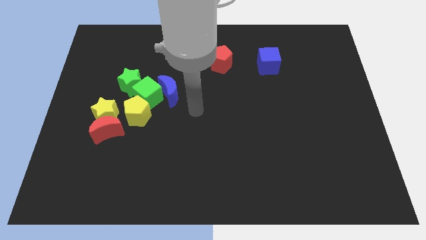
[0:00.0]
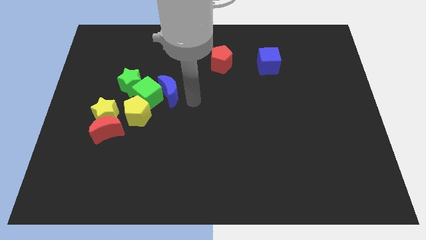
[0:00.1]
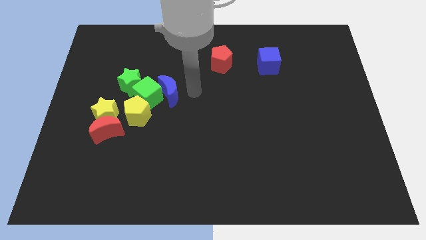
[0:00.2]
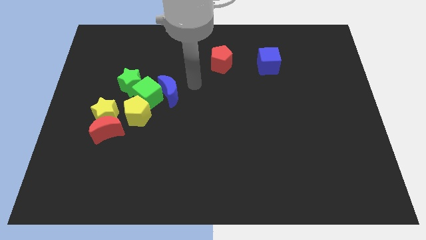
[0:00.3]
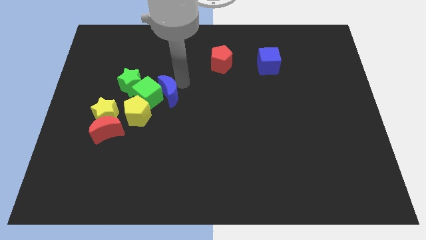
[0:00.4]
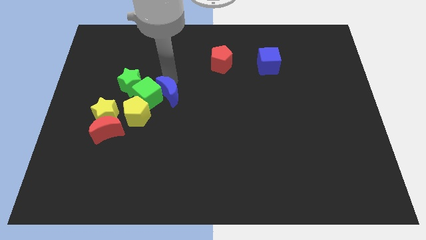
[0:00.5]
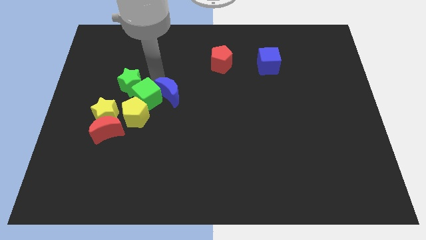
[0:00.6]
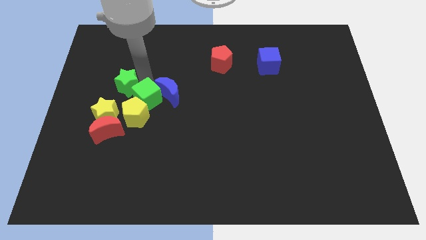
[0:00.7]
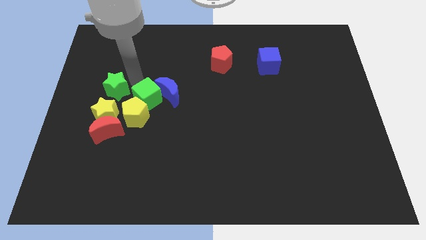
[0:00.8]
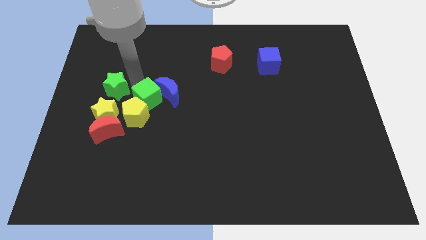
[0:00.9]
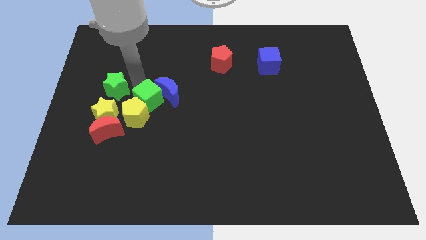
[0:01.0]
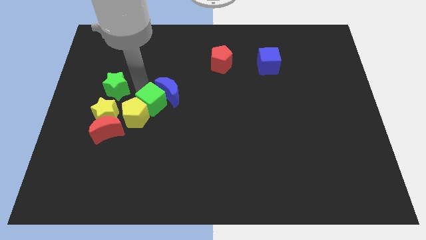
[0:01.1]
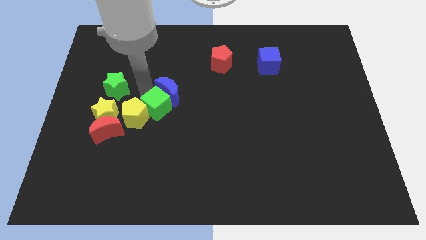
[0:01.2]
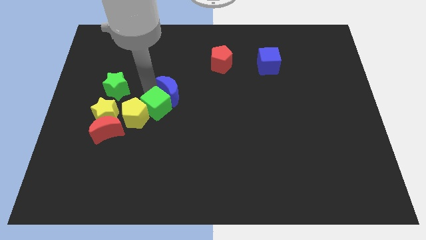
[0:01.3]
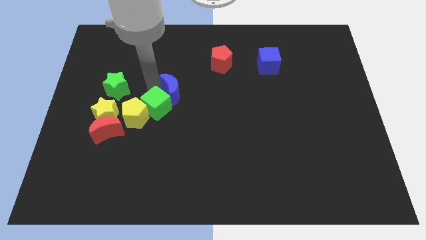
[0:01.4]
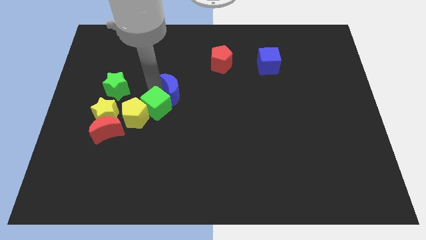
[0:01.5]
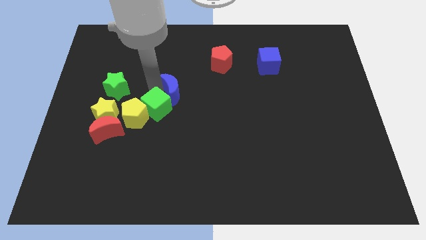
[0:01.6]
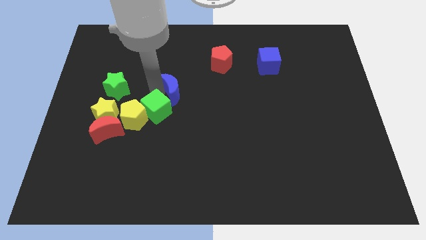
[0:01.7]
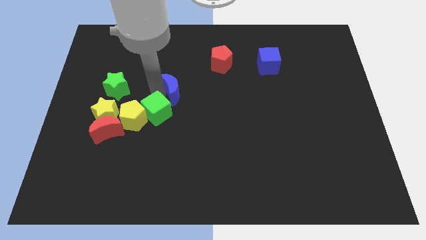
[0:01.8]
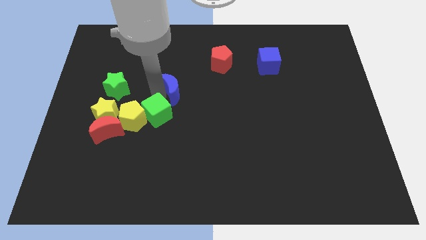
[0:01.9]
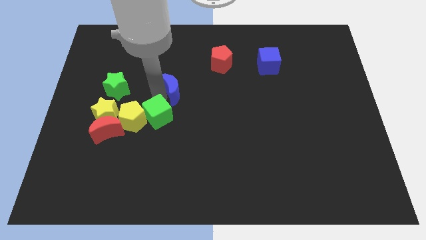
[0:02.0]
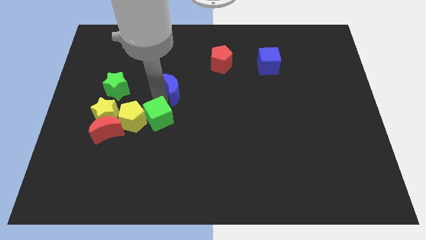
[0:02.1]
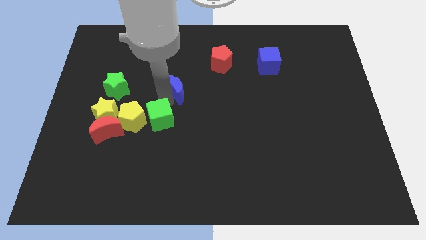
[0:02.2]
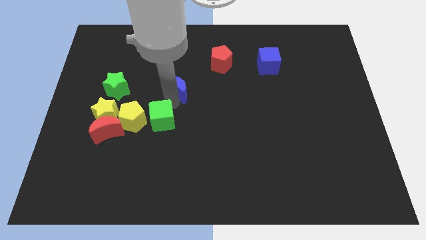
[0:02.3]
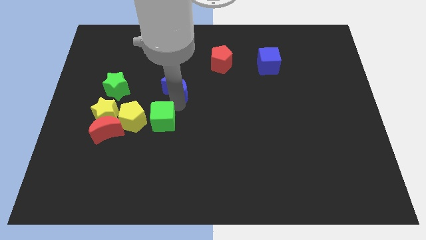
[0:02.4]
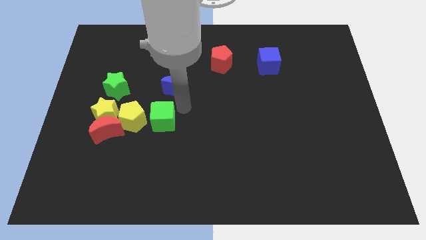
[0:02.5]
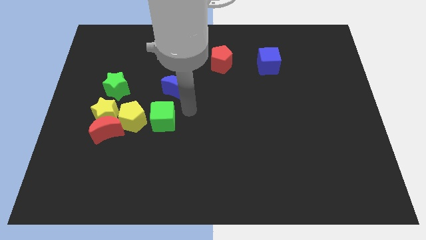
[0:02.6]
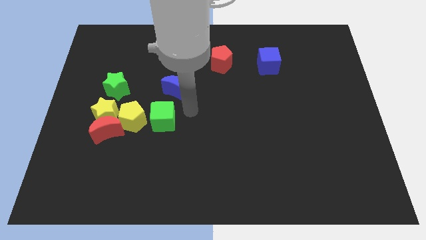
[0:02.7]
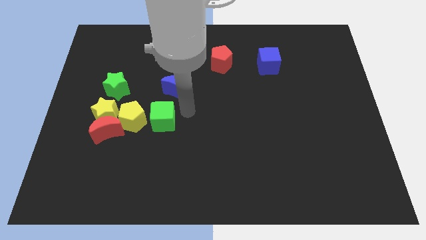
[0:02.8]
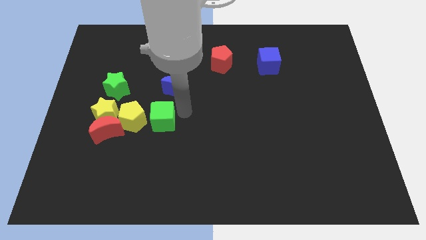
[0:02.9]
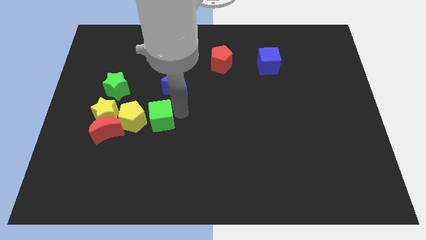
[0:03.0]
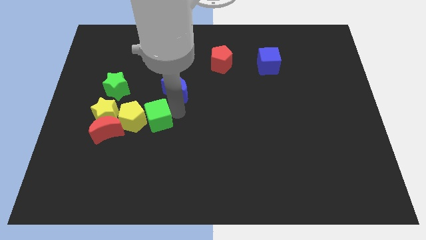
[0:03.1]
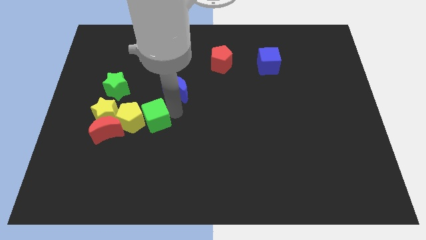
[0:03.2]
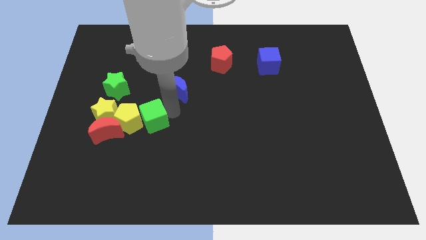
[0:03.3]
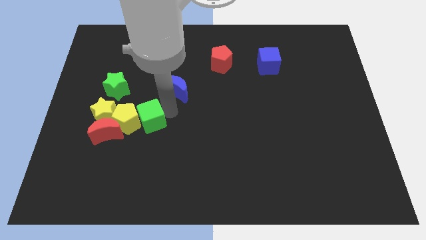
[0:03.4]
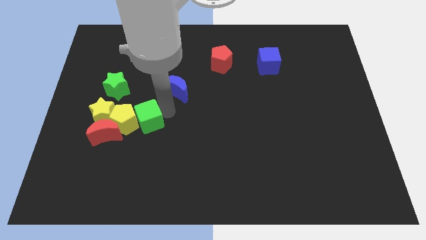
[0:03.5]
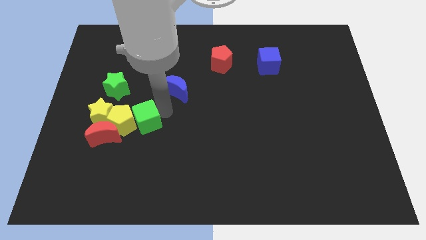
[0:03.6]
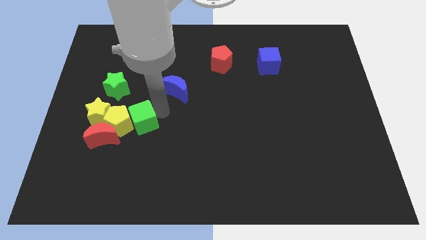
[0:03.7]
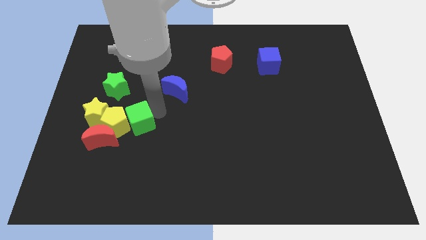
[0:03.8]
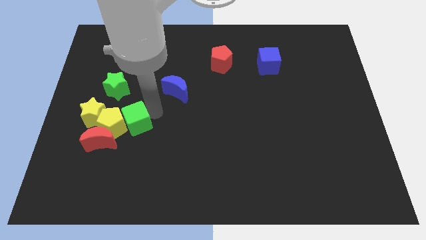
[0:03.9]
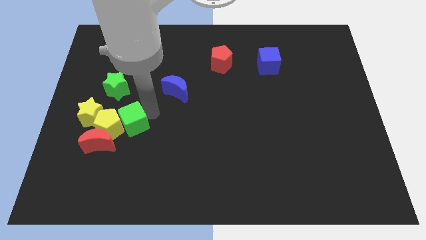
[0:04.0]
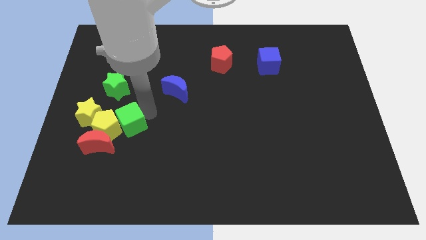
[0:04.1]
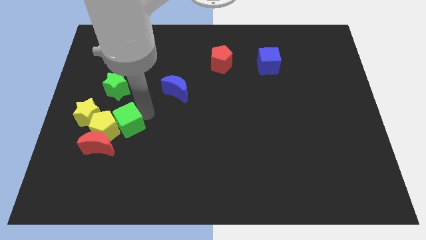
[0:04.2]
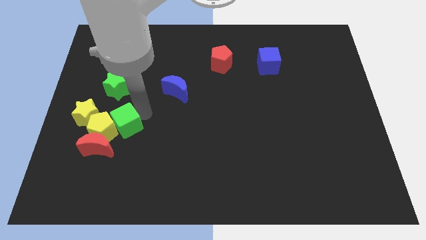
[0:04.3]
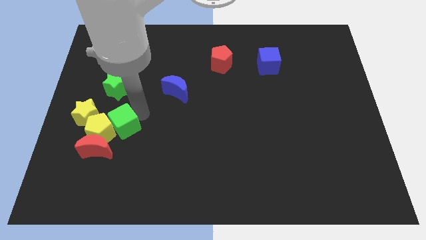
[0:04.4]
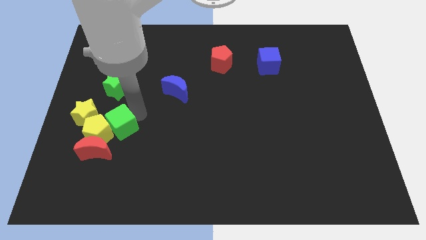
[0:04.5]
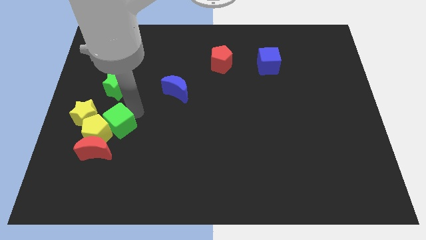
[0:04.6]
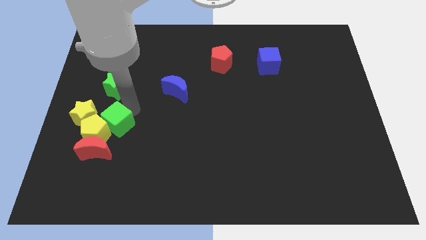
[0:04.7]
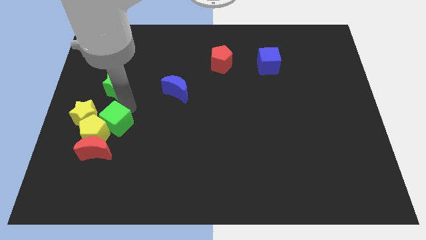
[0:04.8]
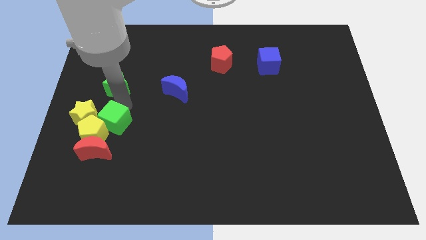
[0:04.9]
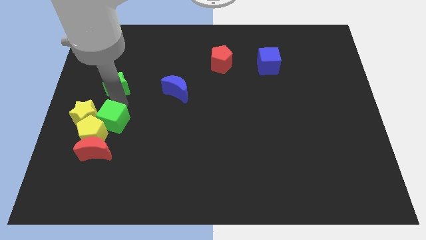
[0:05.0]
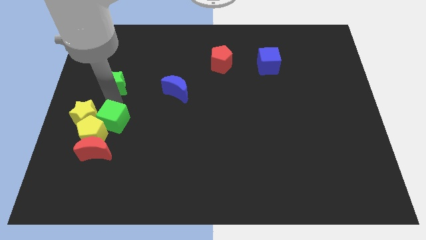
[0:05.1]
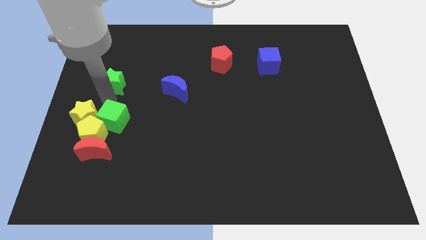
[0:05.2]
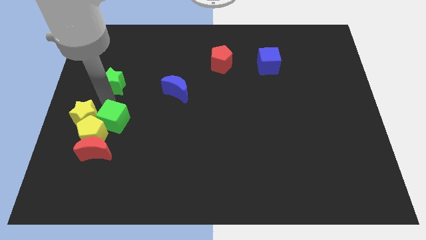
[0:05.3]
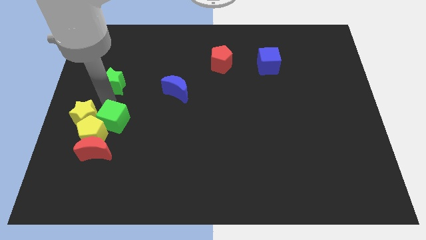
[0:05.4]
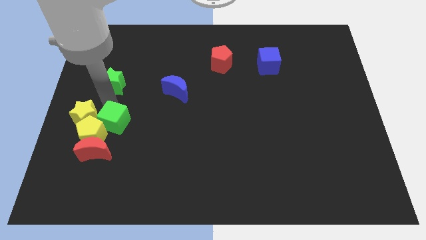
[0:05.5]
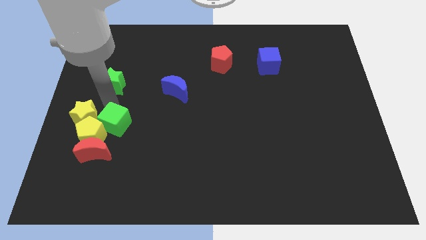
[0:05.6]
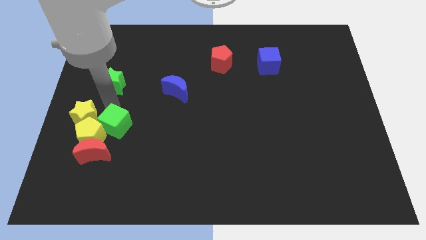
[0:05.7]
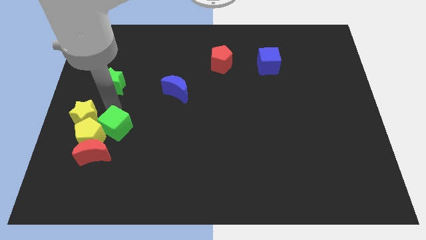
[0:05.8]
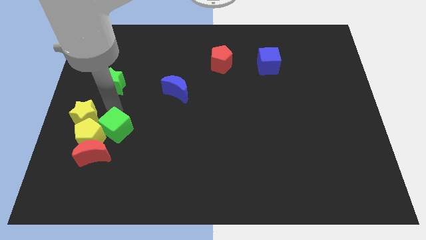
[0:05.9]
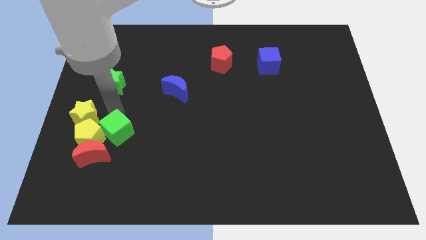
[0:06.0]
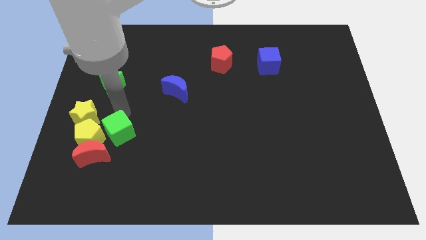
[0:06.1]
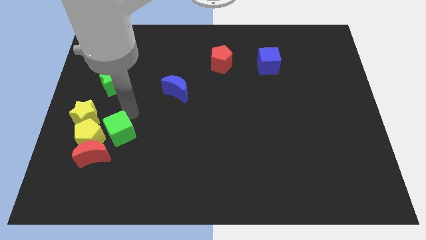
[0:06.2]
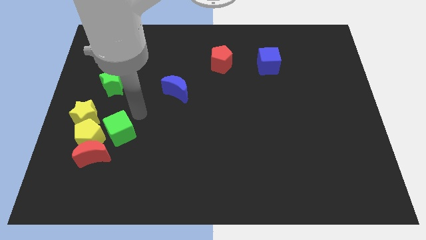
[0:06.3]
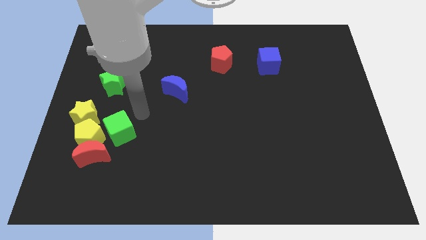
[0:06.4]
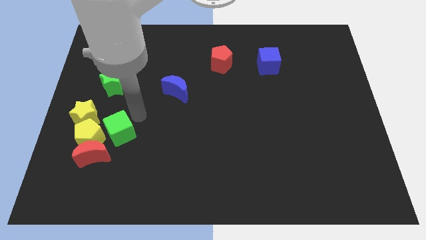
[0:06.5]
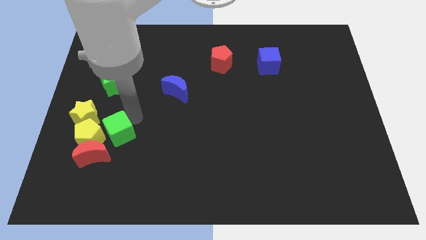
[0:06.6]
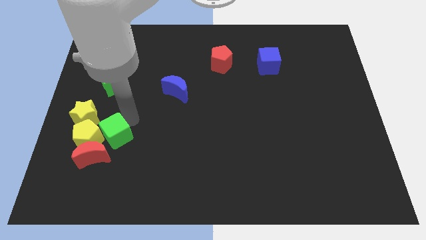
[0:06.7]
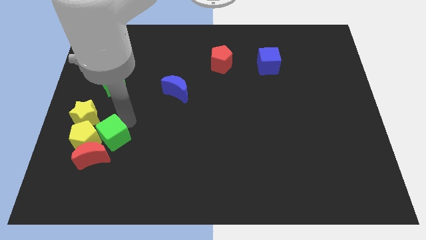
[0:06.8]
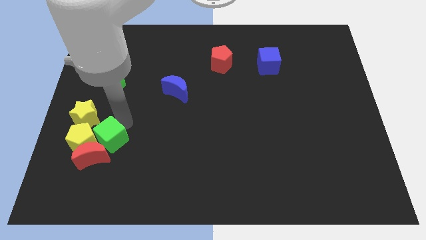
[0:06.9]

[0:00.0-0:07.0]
push the green cube close to the red moon
